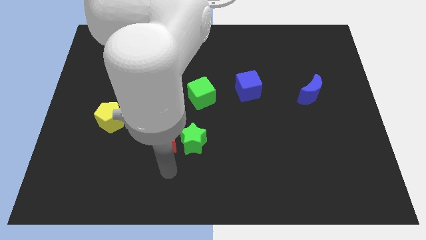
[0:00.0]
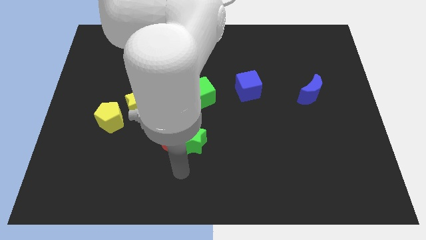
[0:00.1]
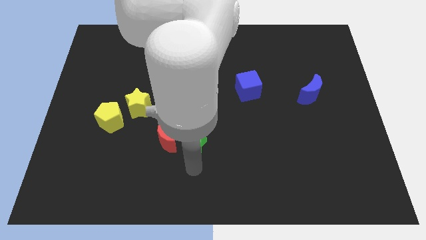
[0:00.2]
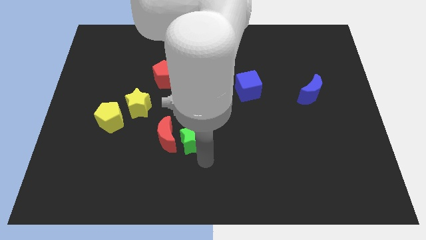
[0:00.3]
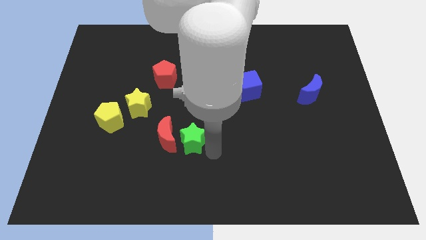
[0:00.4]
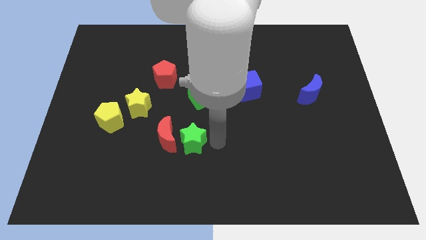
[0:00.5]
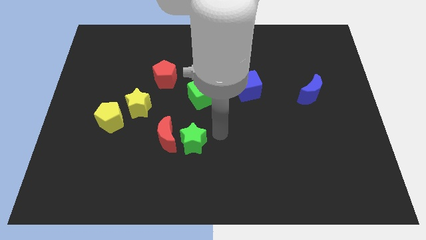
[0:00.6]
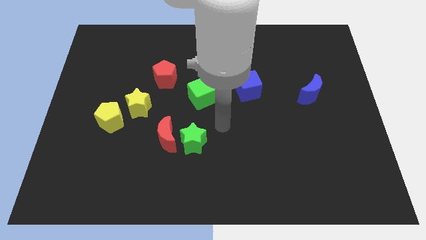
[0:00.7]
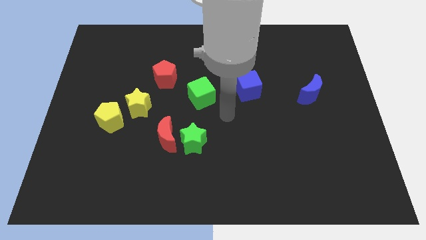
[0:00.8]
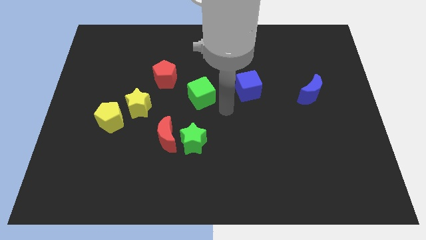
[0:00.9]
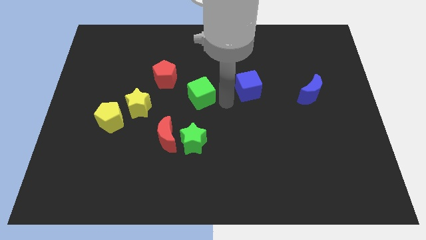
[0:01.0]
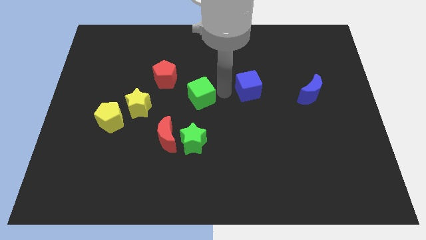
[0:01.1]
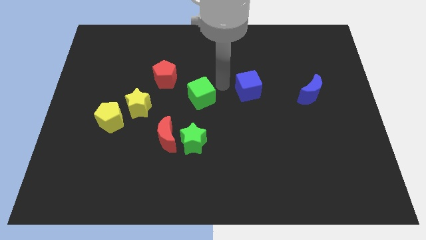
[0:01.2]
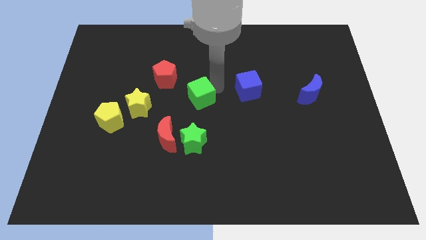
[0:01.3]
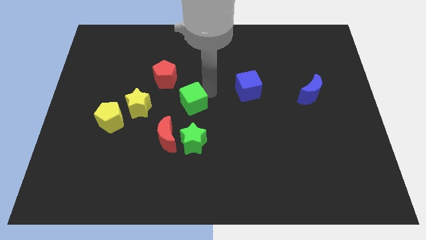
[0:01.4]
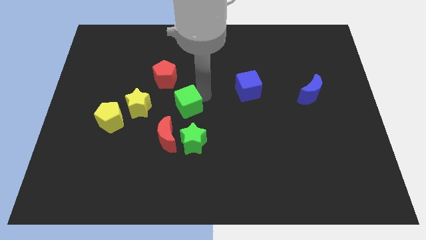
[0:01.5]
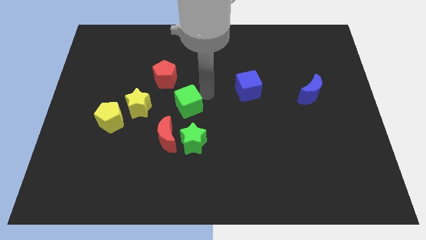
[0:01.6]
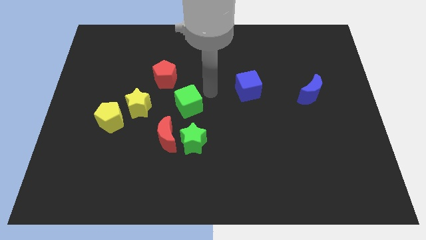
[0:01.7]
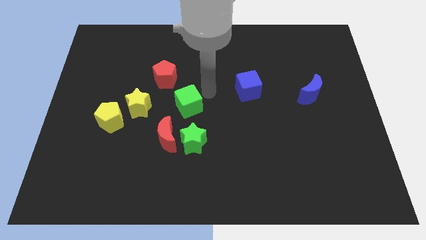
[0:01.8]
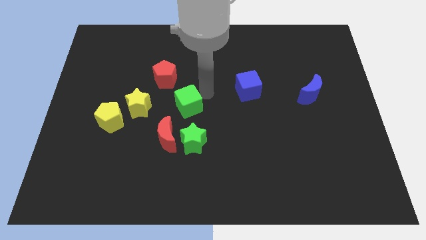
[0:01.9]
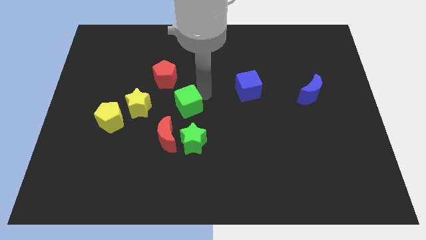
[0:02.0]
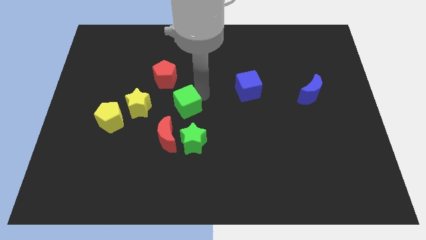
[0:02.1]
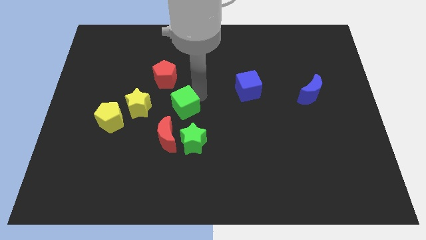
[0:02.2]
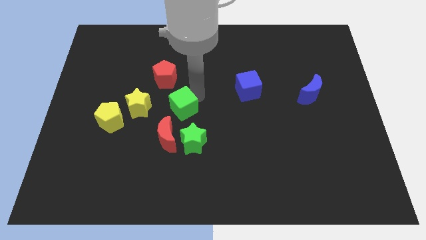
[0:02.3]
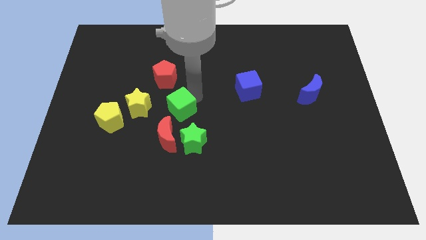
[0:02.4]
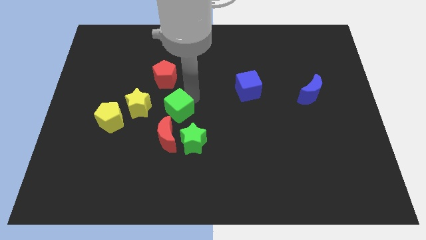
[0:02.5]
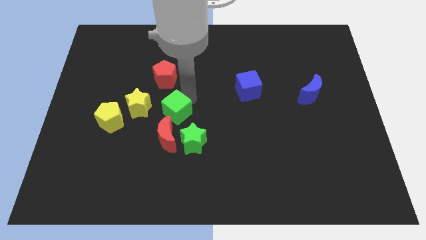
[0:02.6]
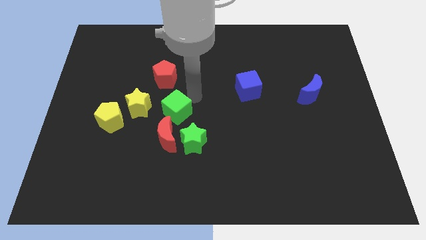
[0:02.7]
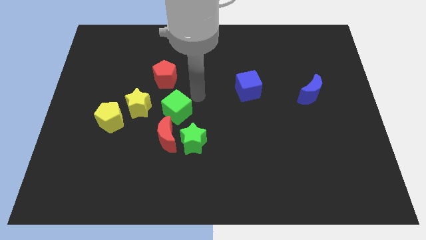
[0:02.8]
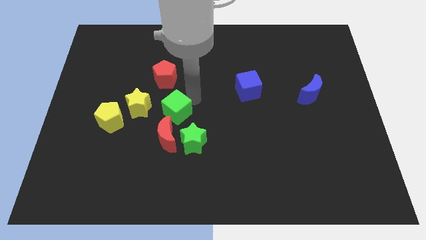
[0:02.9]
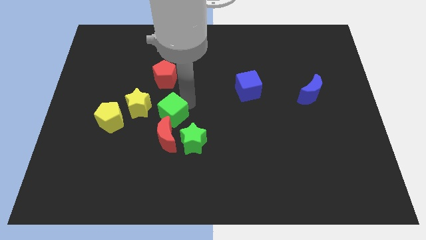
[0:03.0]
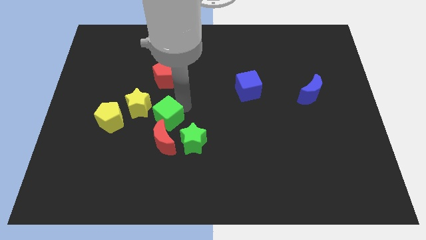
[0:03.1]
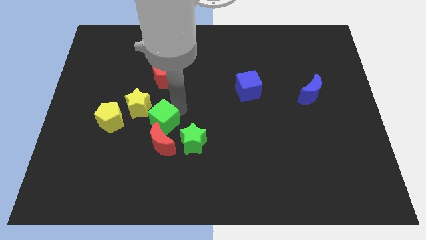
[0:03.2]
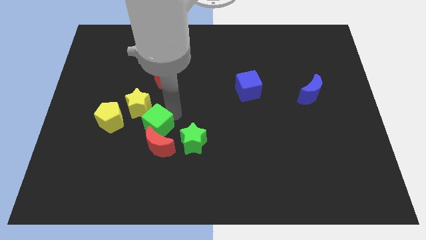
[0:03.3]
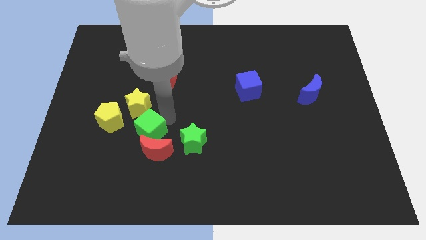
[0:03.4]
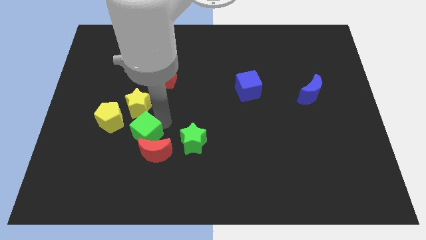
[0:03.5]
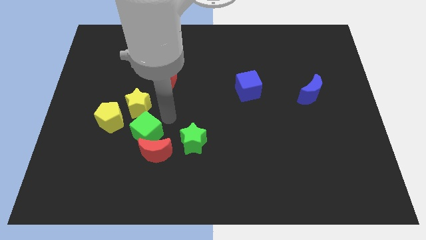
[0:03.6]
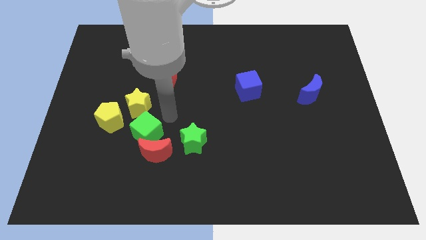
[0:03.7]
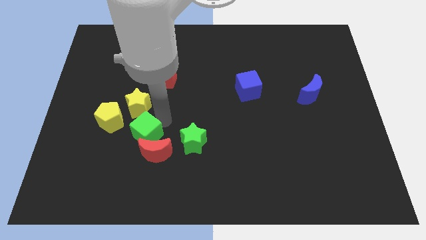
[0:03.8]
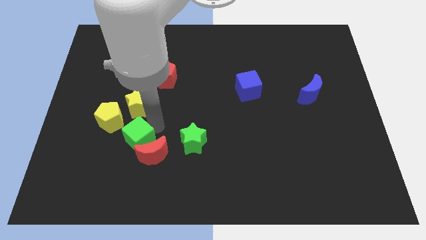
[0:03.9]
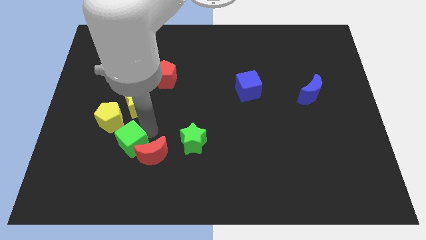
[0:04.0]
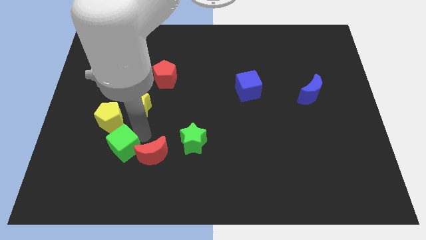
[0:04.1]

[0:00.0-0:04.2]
move the green cube downwards and left diagonally

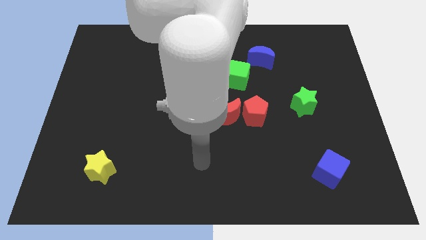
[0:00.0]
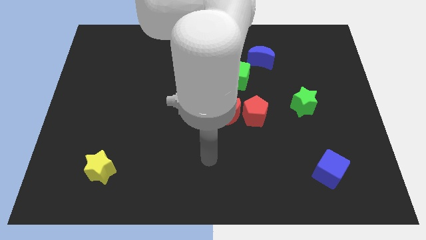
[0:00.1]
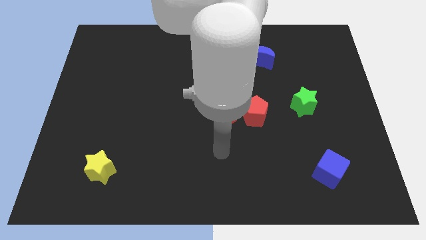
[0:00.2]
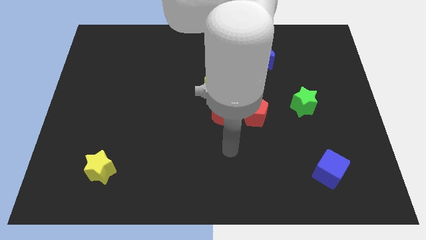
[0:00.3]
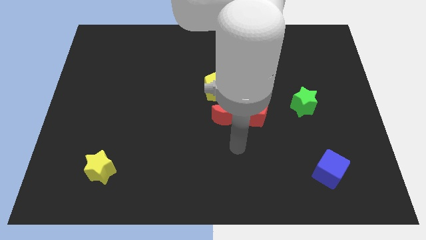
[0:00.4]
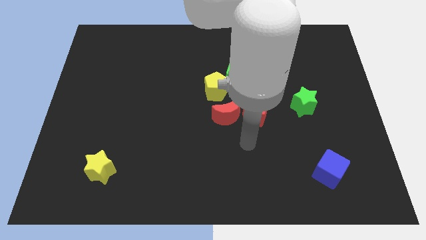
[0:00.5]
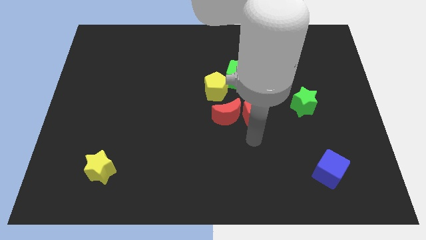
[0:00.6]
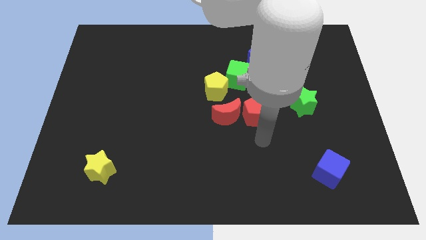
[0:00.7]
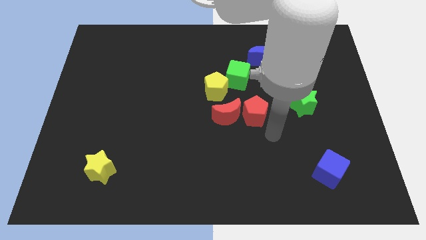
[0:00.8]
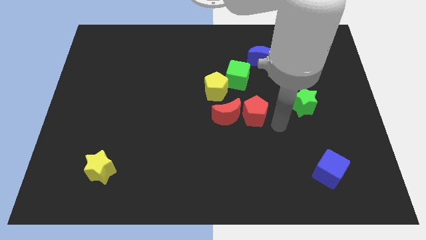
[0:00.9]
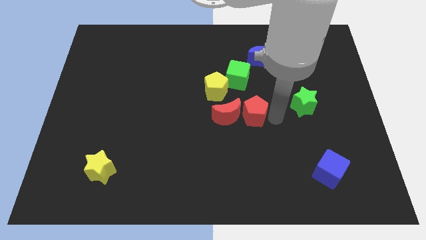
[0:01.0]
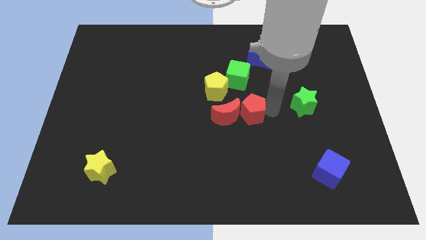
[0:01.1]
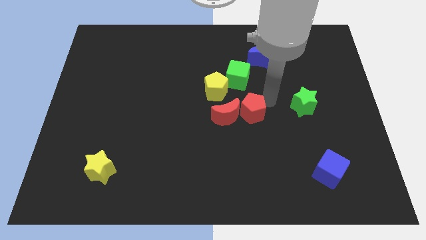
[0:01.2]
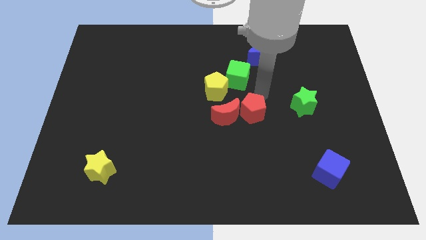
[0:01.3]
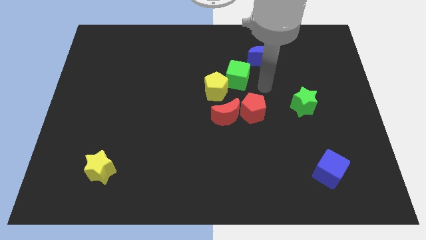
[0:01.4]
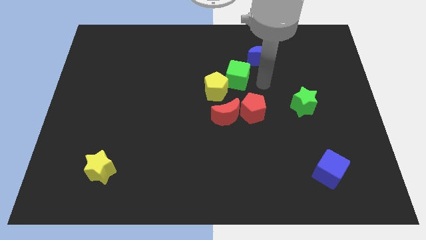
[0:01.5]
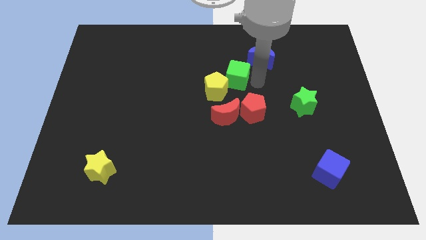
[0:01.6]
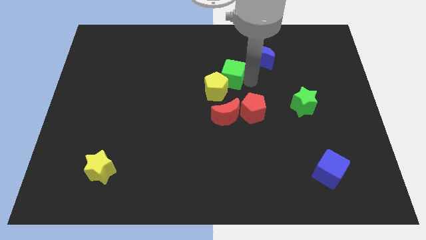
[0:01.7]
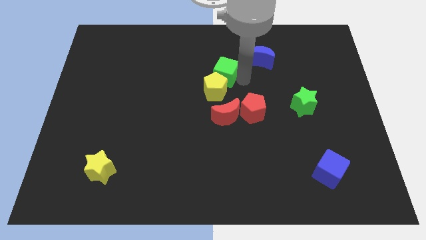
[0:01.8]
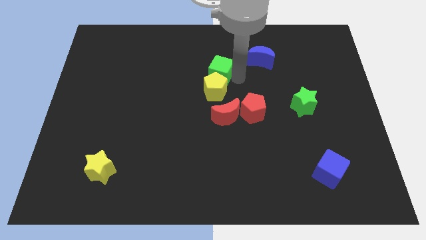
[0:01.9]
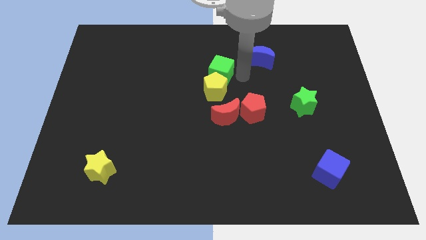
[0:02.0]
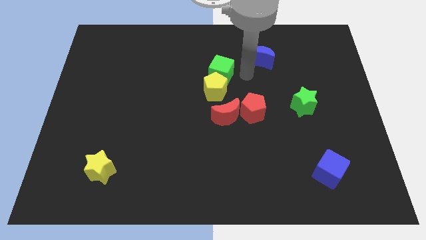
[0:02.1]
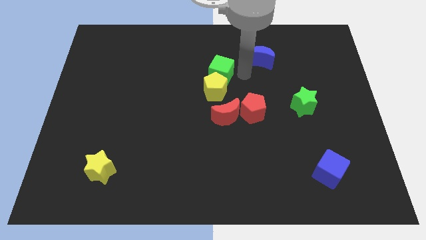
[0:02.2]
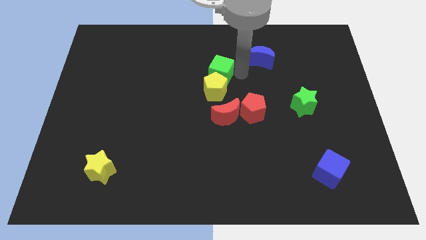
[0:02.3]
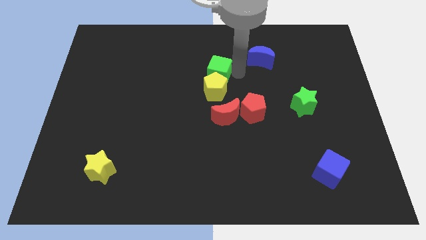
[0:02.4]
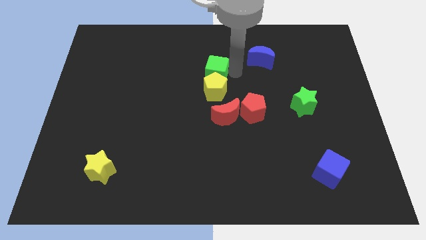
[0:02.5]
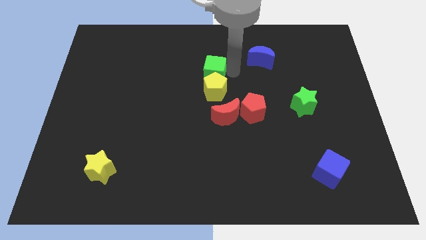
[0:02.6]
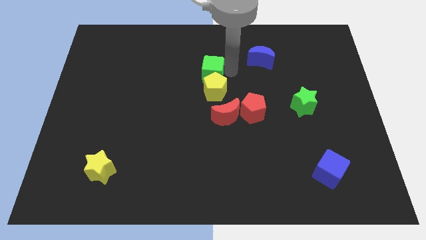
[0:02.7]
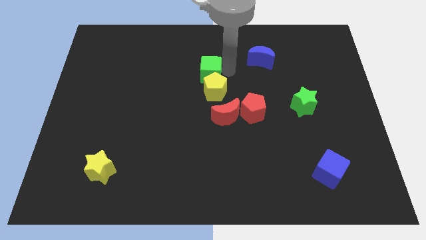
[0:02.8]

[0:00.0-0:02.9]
push the green cube to the left slightly

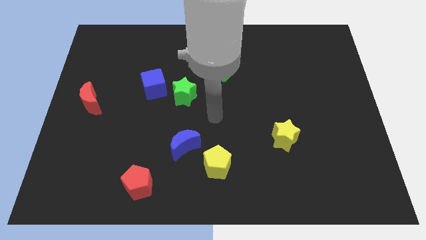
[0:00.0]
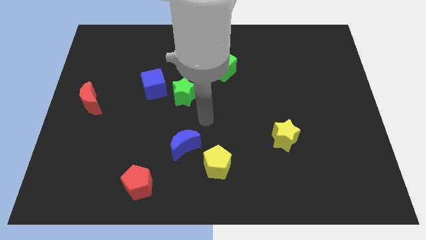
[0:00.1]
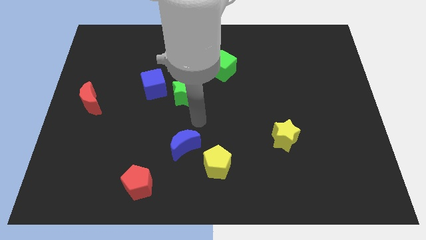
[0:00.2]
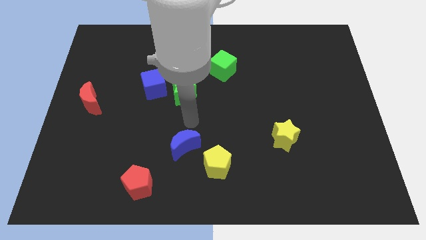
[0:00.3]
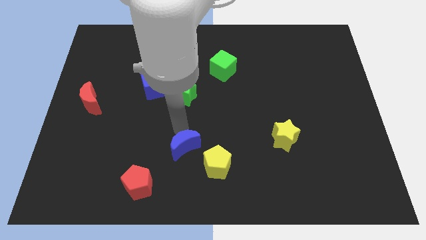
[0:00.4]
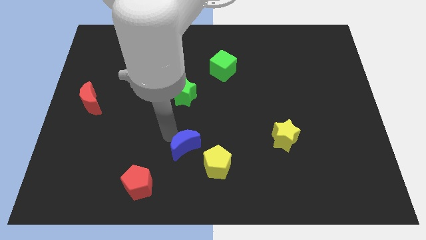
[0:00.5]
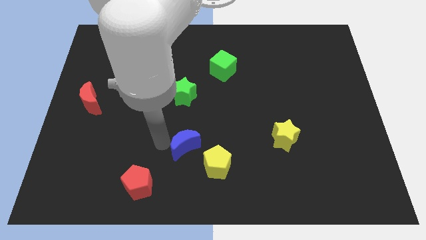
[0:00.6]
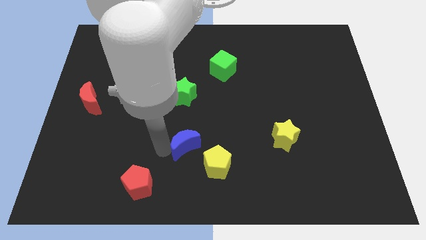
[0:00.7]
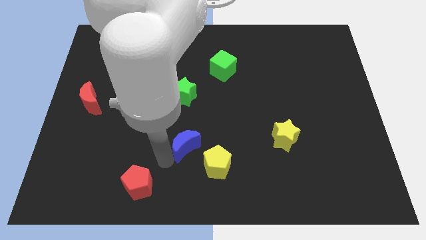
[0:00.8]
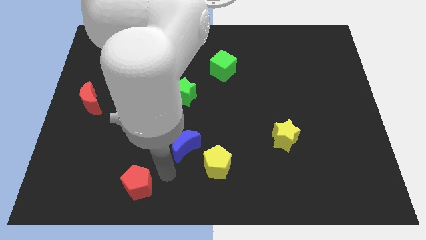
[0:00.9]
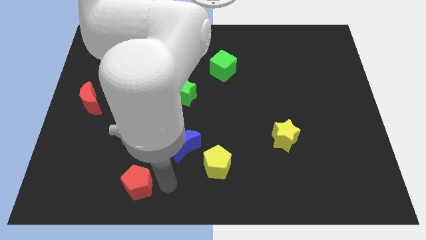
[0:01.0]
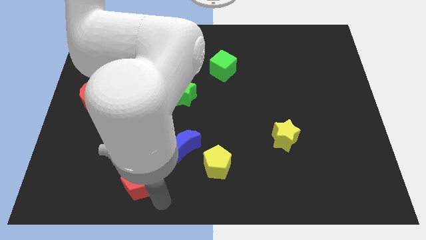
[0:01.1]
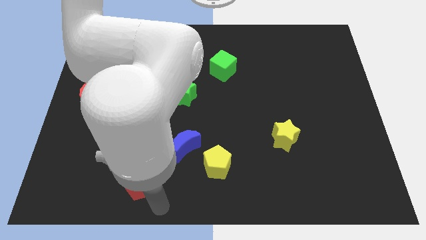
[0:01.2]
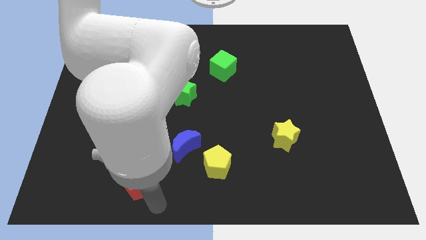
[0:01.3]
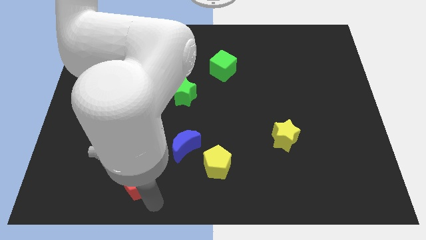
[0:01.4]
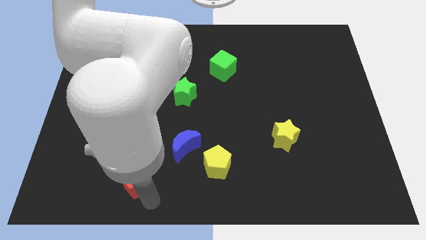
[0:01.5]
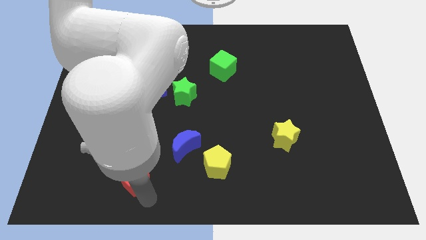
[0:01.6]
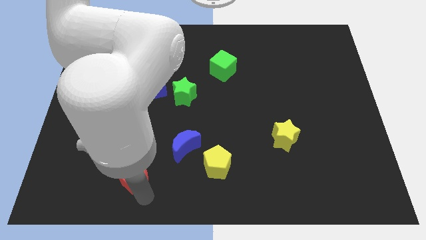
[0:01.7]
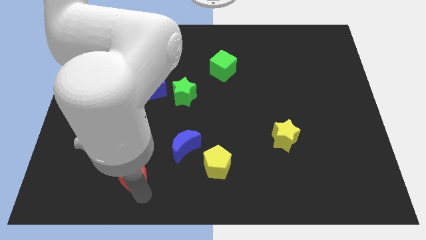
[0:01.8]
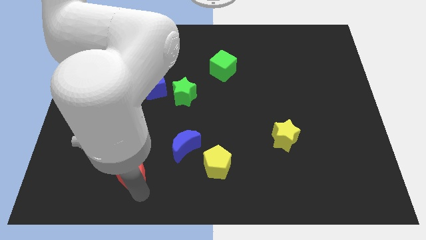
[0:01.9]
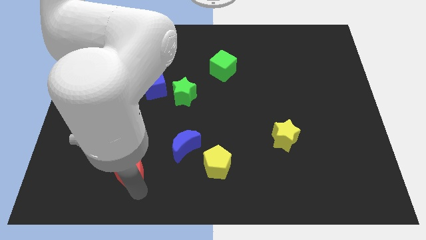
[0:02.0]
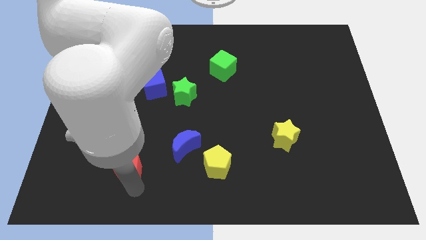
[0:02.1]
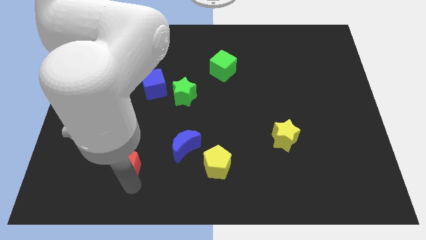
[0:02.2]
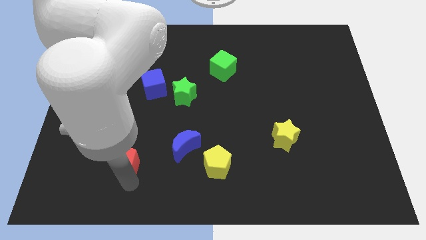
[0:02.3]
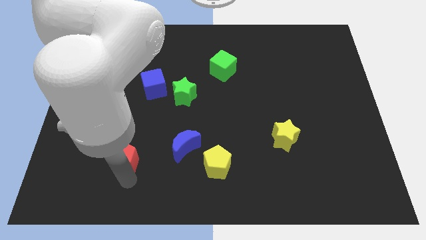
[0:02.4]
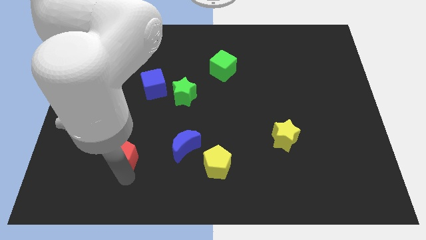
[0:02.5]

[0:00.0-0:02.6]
slide the red pentagon a little up and then to the left
